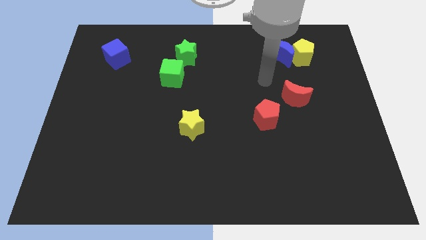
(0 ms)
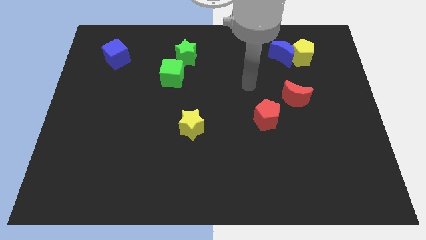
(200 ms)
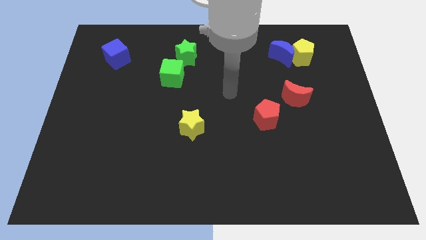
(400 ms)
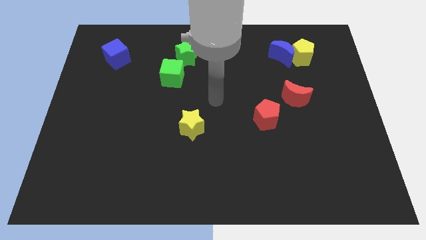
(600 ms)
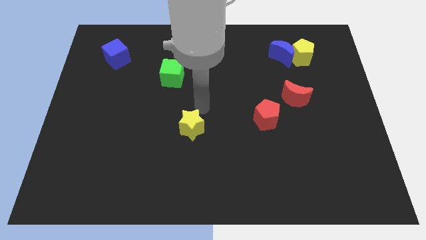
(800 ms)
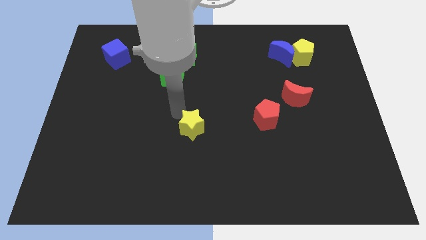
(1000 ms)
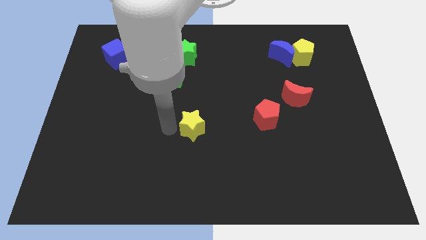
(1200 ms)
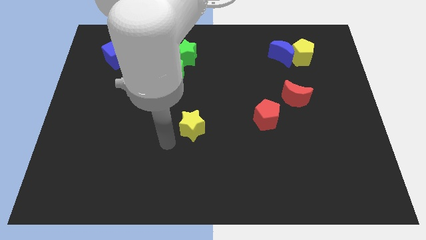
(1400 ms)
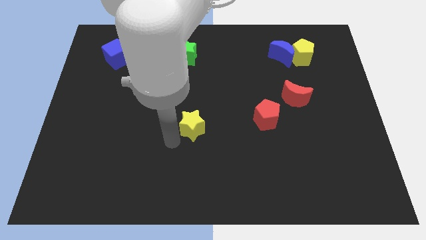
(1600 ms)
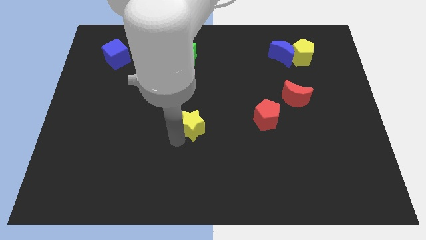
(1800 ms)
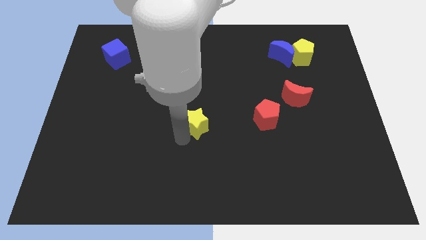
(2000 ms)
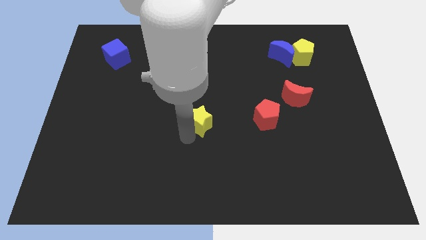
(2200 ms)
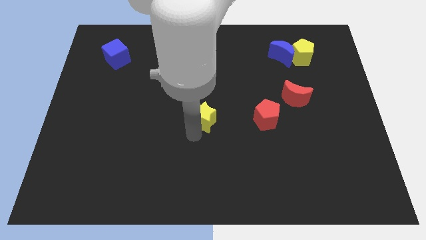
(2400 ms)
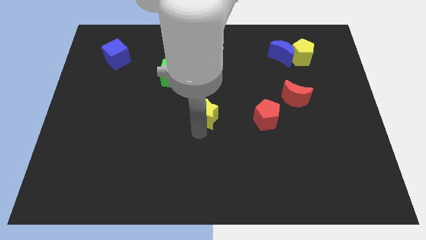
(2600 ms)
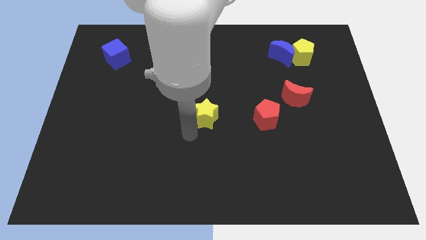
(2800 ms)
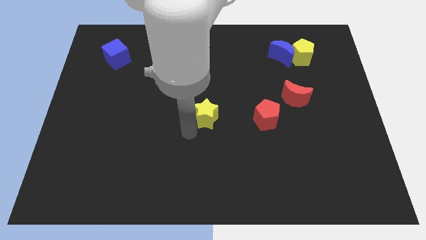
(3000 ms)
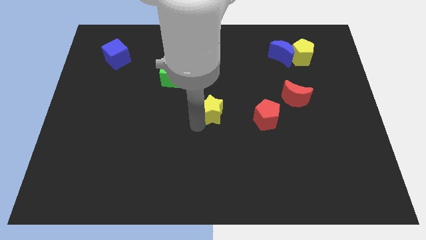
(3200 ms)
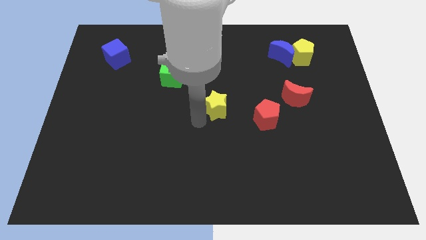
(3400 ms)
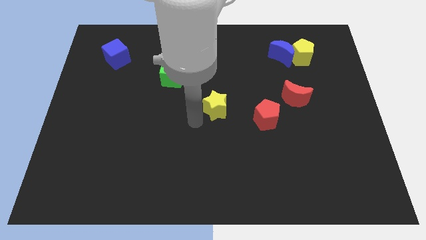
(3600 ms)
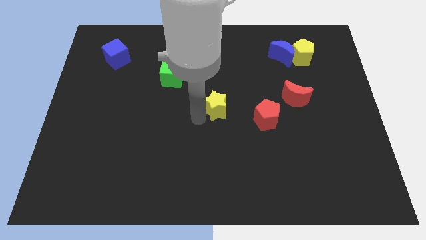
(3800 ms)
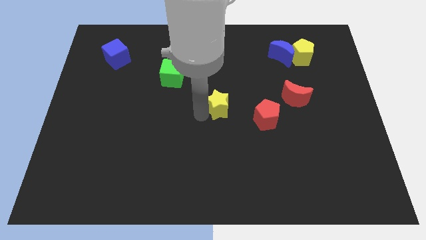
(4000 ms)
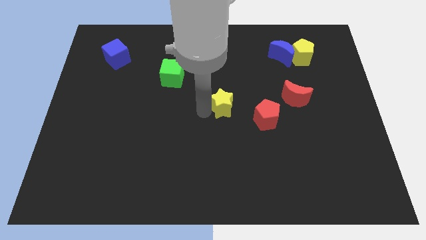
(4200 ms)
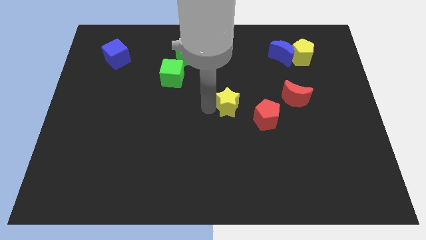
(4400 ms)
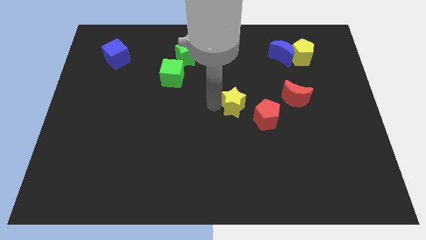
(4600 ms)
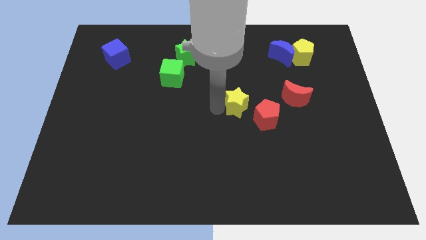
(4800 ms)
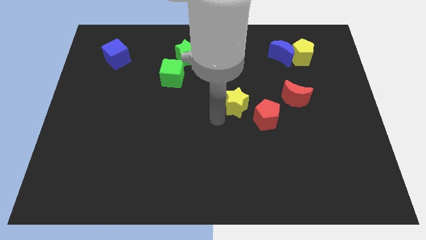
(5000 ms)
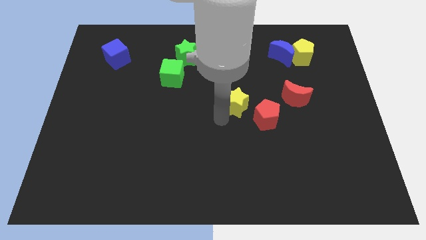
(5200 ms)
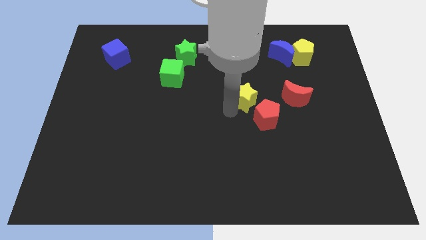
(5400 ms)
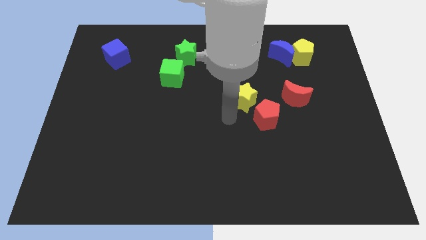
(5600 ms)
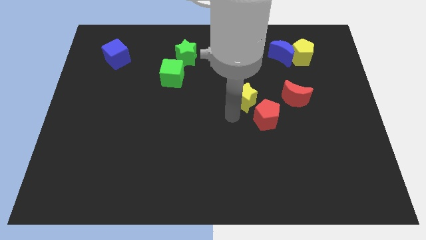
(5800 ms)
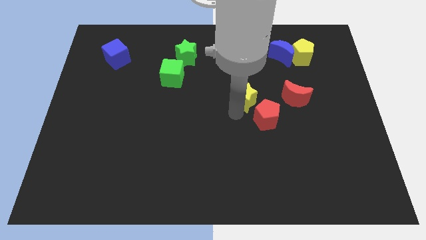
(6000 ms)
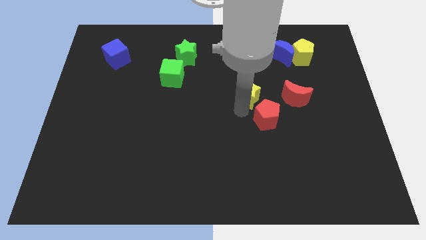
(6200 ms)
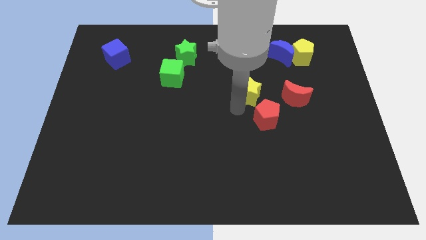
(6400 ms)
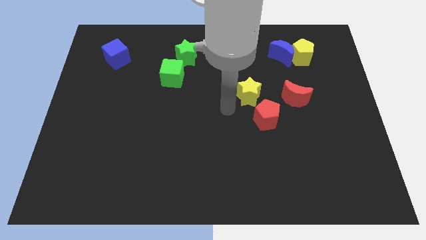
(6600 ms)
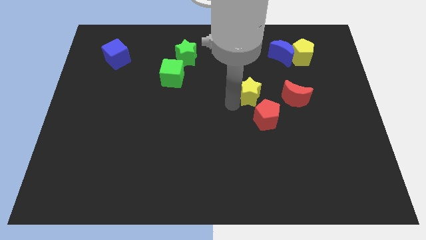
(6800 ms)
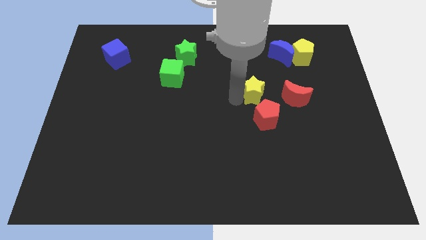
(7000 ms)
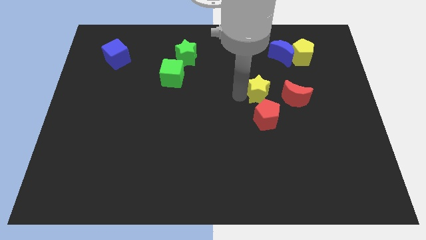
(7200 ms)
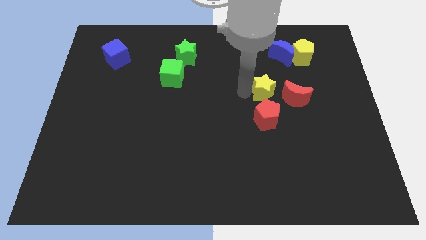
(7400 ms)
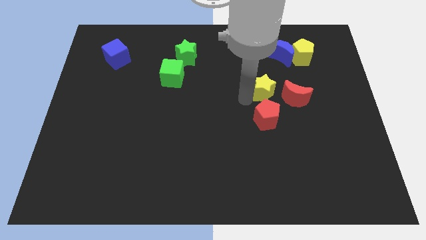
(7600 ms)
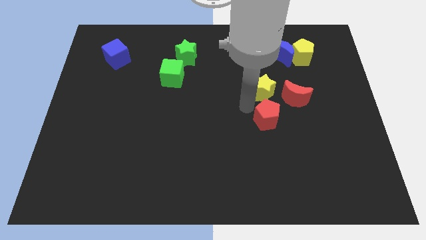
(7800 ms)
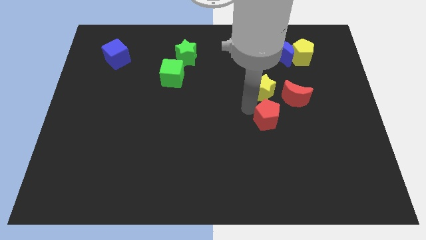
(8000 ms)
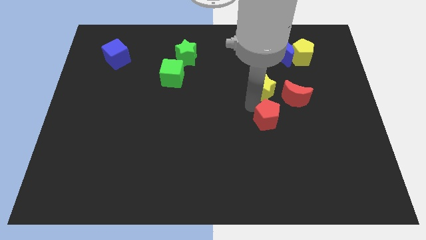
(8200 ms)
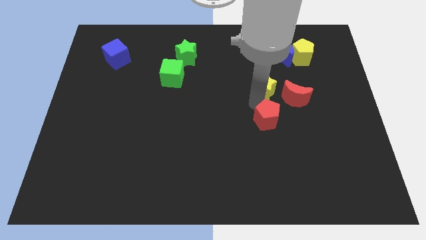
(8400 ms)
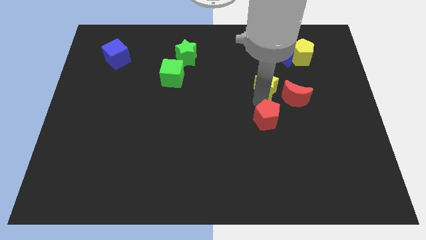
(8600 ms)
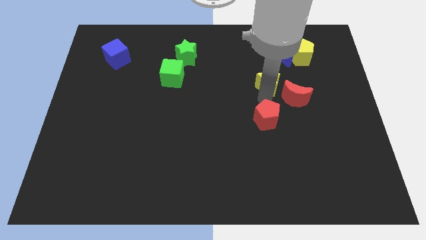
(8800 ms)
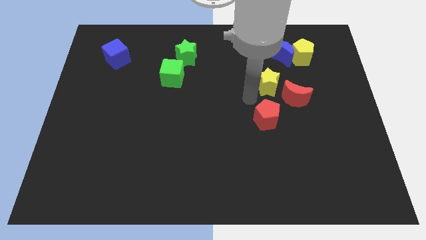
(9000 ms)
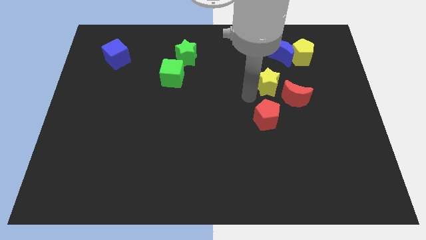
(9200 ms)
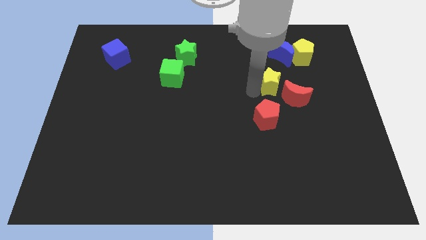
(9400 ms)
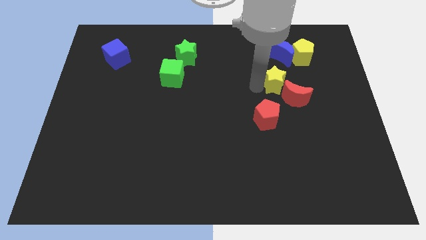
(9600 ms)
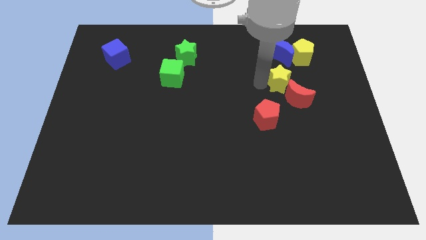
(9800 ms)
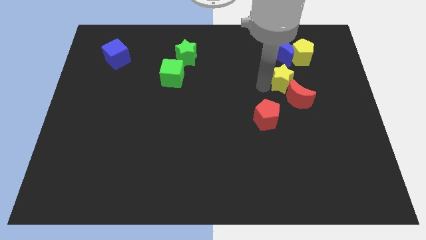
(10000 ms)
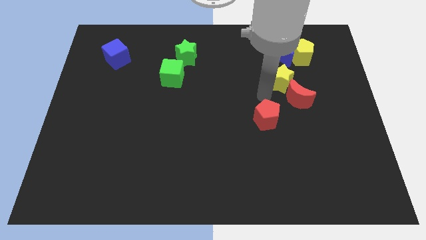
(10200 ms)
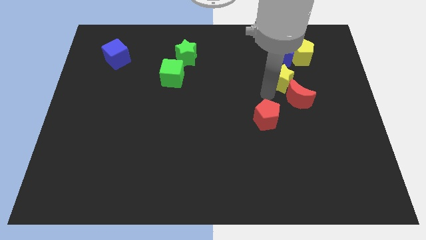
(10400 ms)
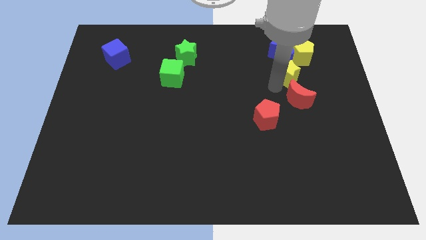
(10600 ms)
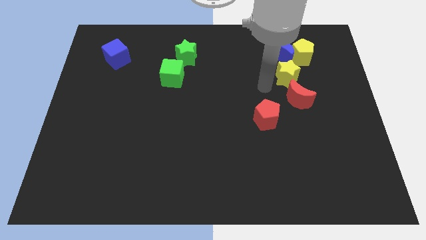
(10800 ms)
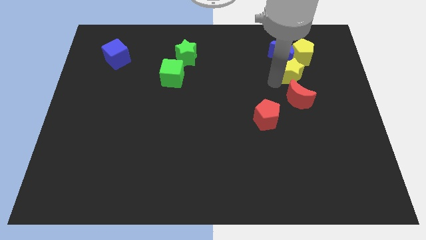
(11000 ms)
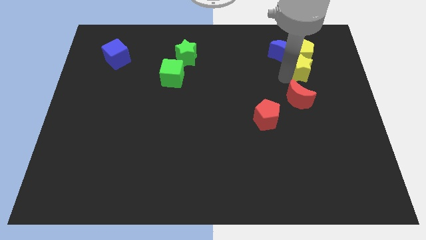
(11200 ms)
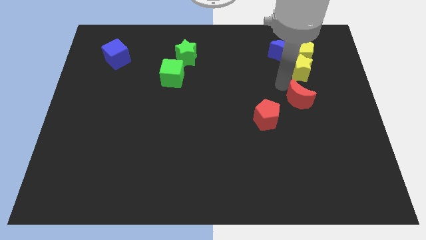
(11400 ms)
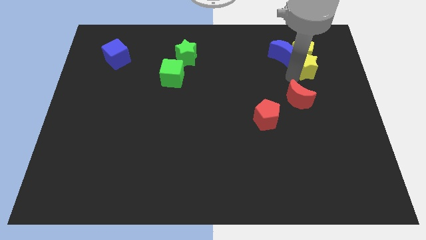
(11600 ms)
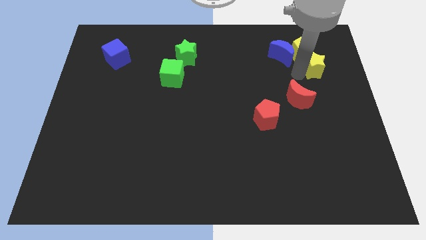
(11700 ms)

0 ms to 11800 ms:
slide the yellow star to the right side of the blue moon

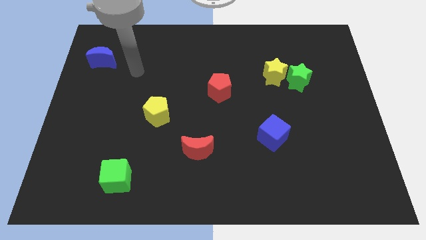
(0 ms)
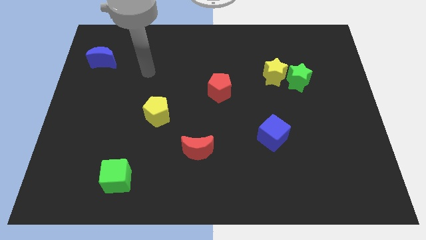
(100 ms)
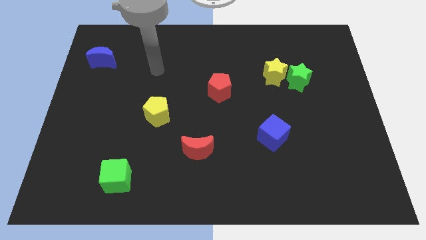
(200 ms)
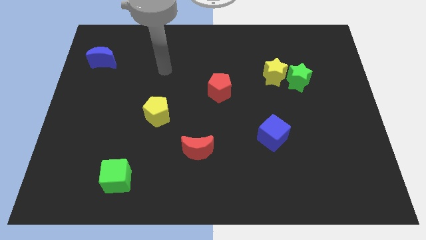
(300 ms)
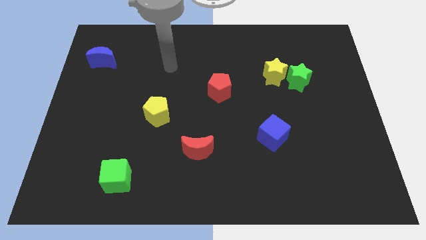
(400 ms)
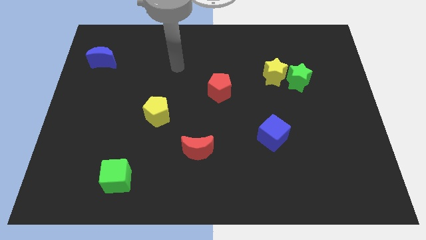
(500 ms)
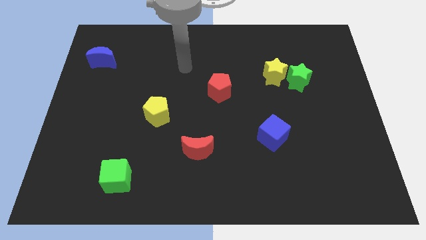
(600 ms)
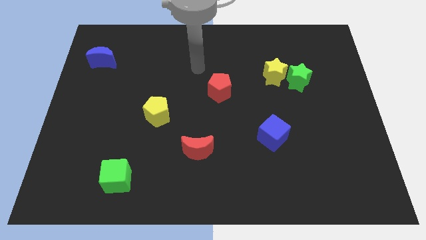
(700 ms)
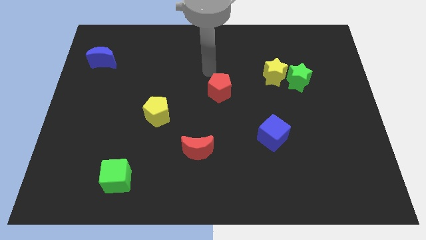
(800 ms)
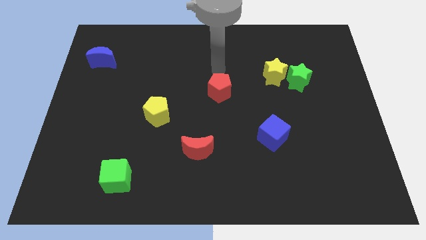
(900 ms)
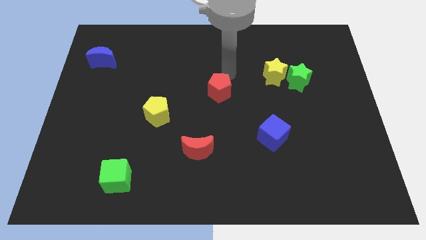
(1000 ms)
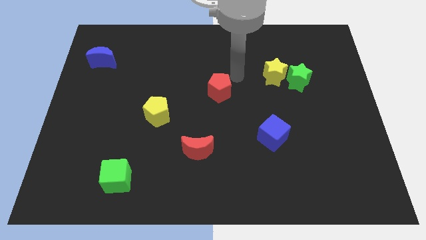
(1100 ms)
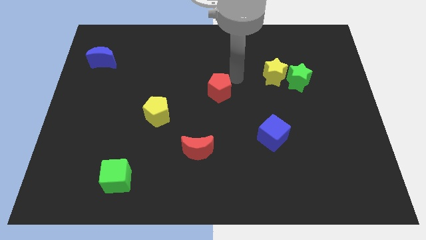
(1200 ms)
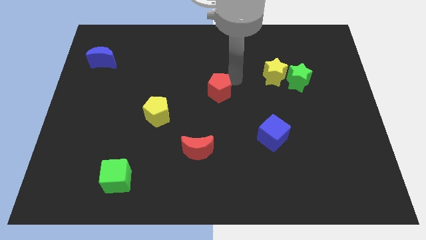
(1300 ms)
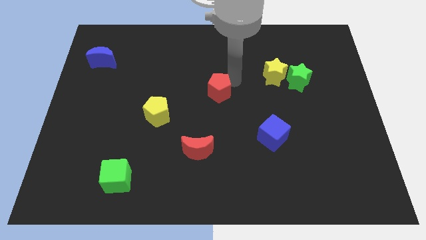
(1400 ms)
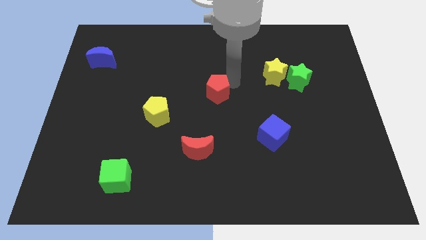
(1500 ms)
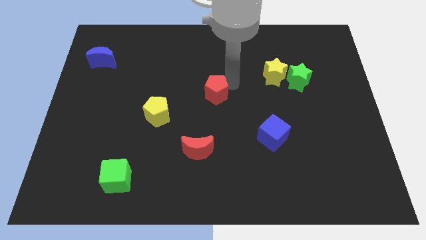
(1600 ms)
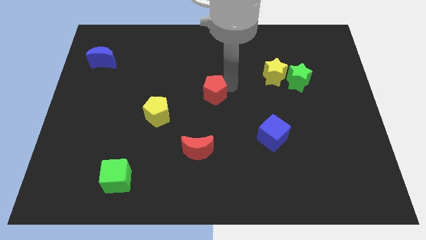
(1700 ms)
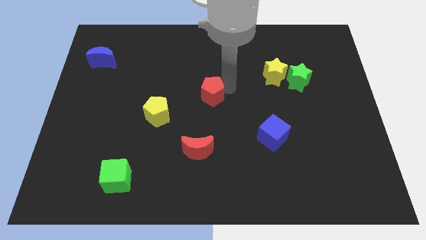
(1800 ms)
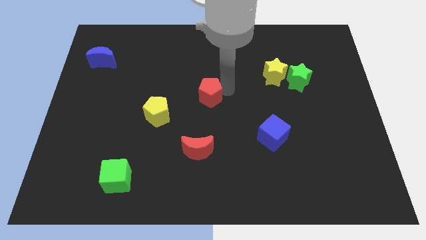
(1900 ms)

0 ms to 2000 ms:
move the red pentagon to the top side of the red moon
